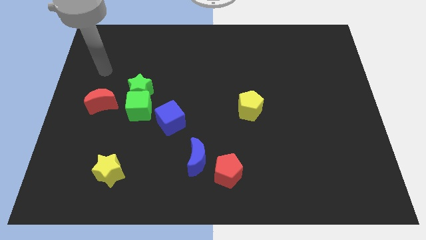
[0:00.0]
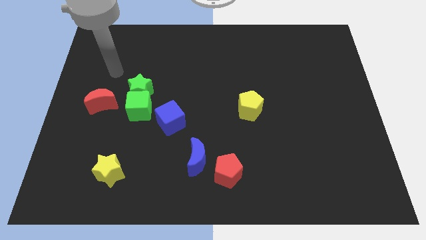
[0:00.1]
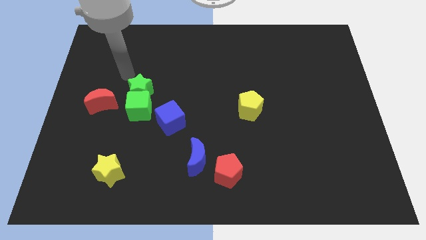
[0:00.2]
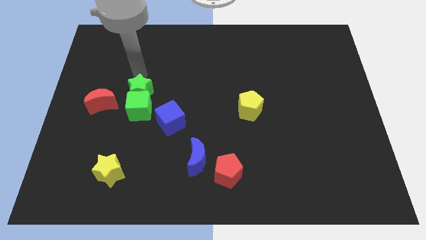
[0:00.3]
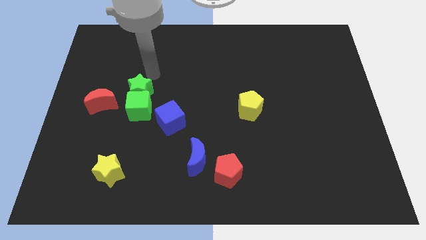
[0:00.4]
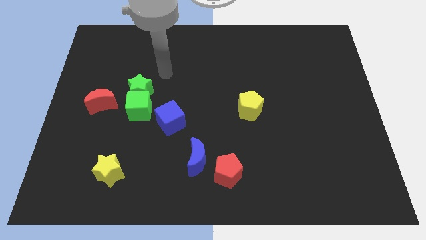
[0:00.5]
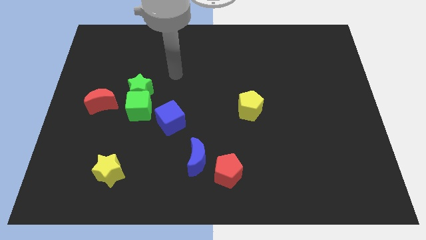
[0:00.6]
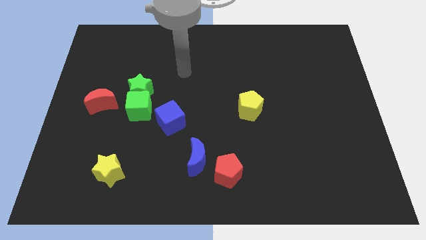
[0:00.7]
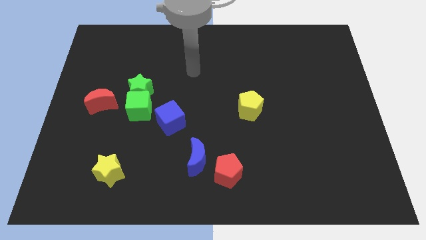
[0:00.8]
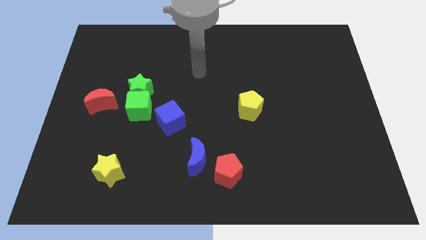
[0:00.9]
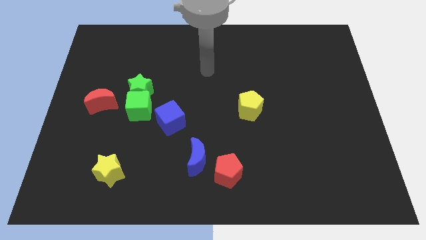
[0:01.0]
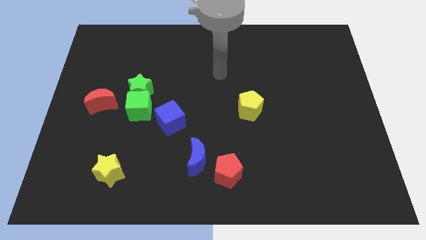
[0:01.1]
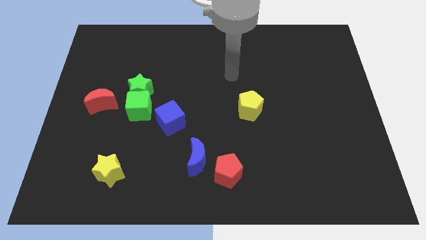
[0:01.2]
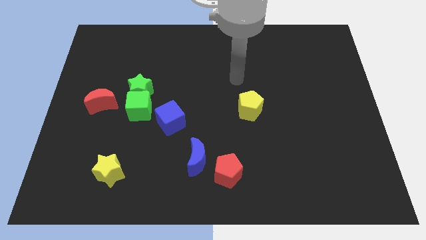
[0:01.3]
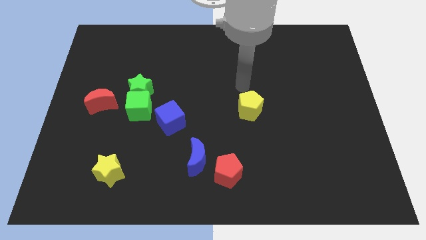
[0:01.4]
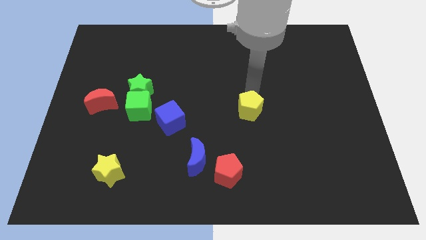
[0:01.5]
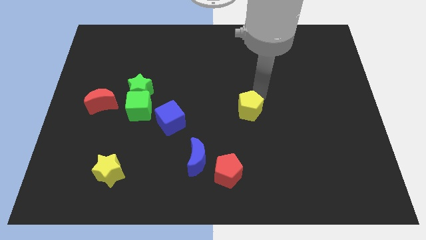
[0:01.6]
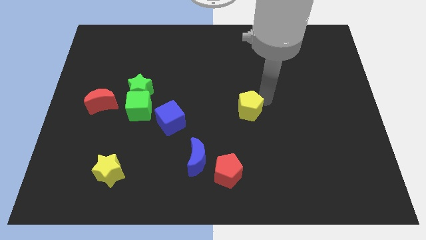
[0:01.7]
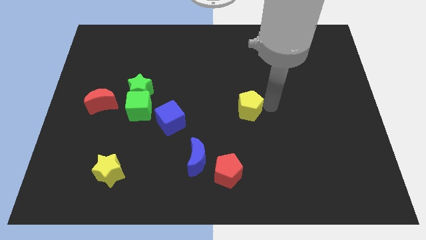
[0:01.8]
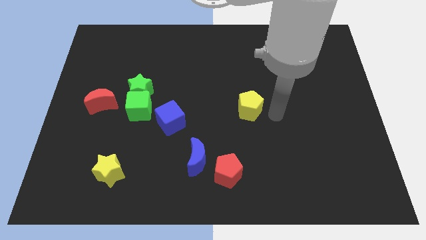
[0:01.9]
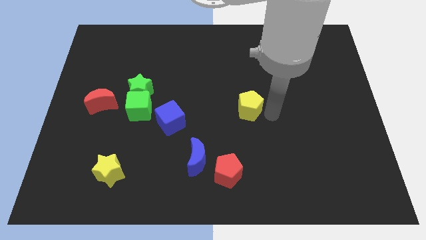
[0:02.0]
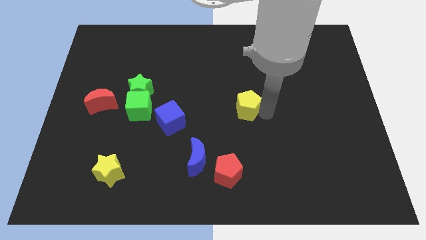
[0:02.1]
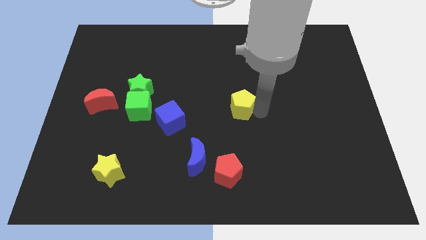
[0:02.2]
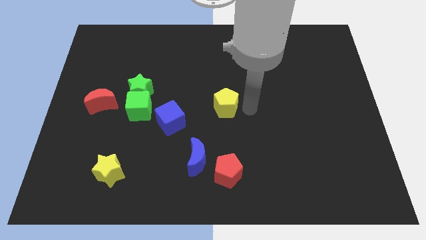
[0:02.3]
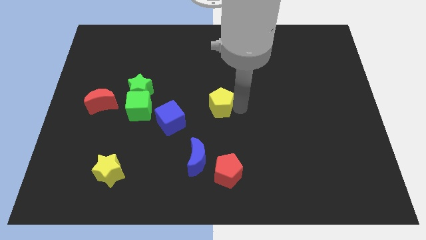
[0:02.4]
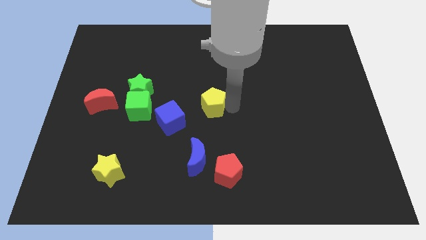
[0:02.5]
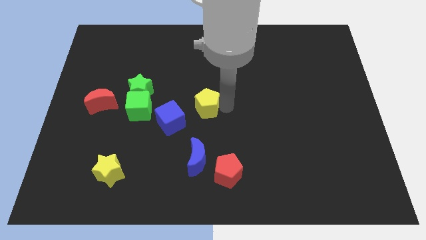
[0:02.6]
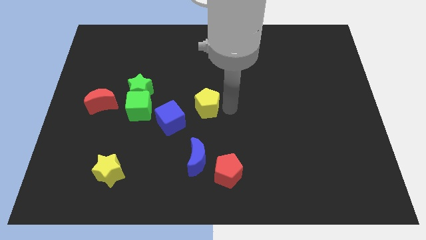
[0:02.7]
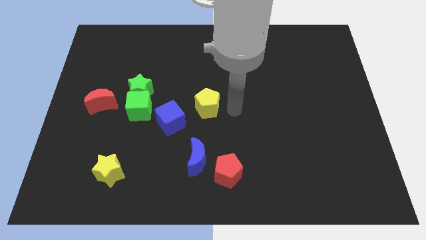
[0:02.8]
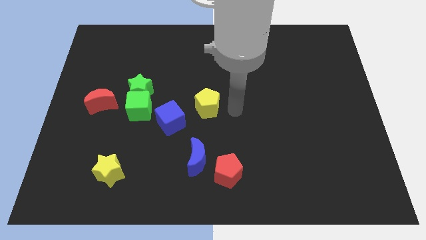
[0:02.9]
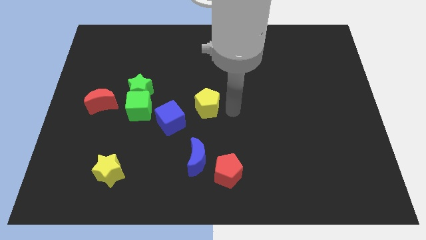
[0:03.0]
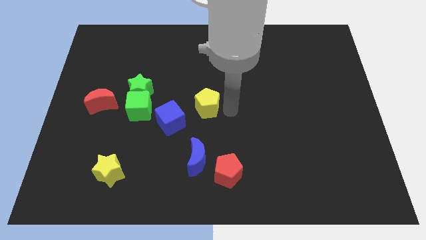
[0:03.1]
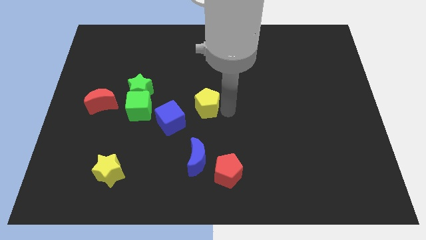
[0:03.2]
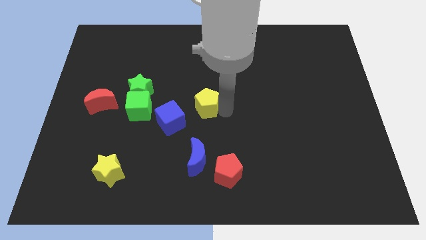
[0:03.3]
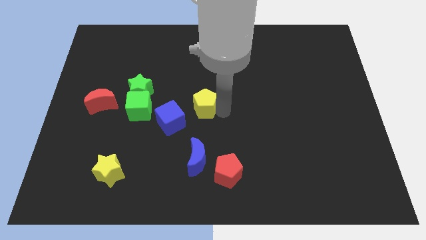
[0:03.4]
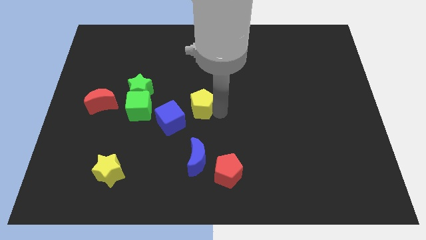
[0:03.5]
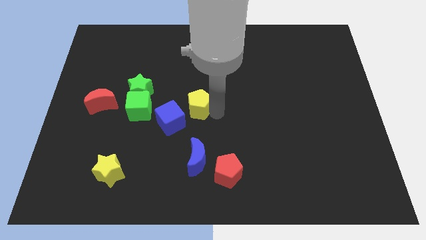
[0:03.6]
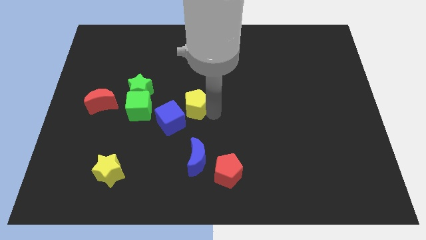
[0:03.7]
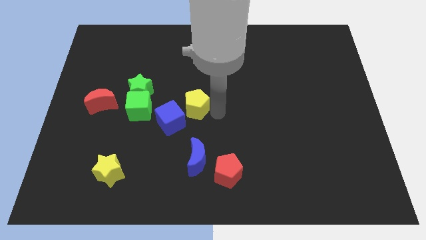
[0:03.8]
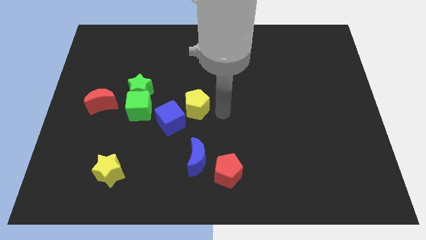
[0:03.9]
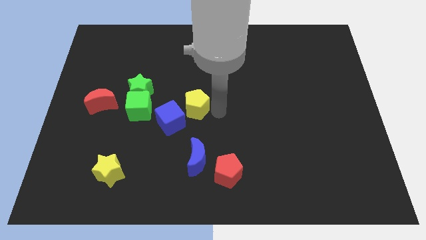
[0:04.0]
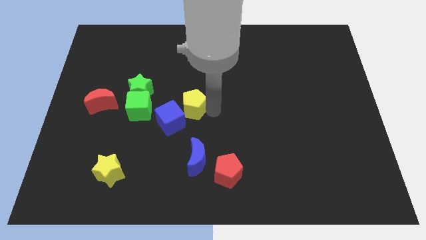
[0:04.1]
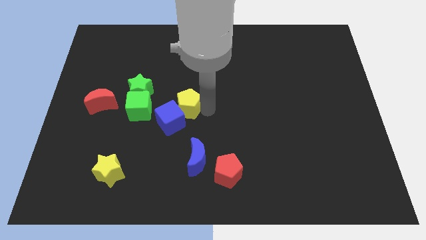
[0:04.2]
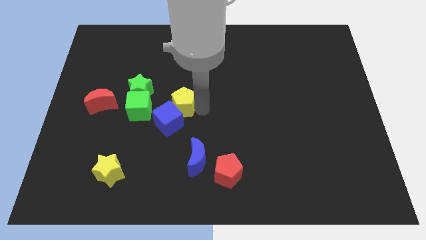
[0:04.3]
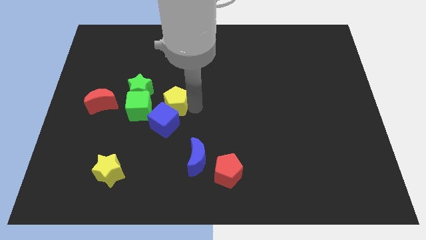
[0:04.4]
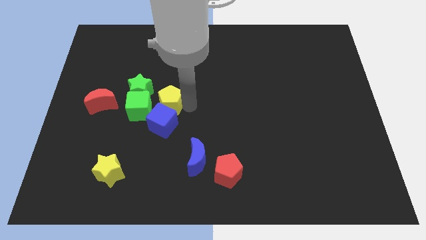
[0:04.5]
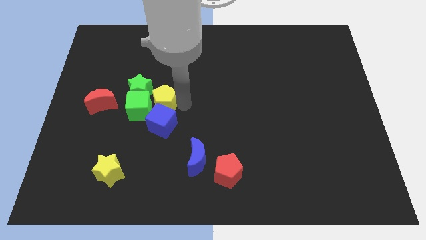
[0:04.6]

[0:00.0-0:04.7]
move the yellow pentagon to the green cube

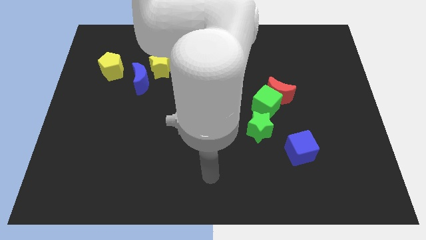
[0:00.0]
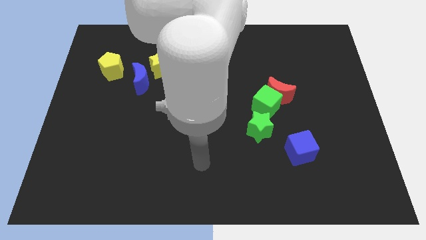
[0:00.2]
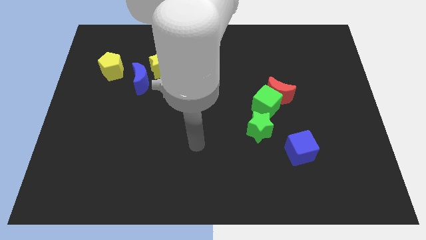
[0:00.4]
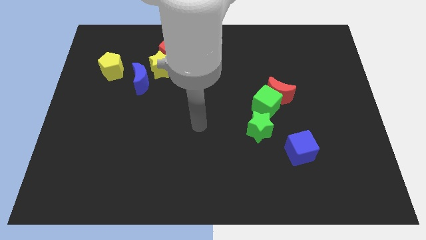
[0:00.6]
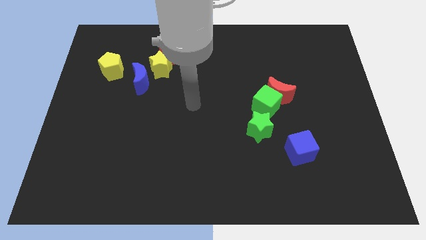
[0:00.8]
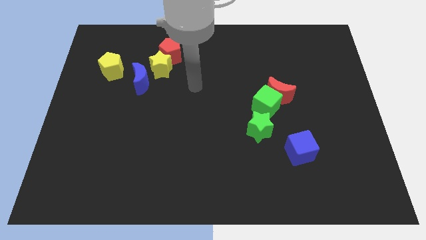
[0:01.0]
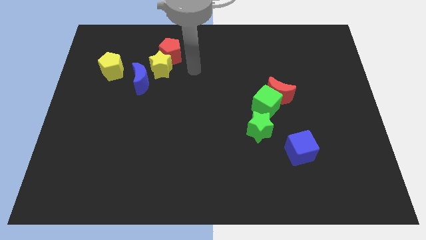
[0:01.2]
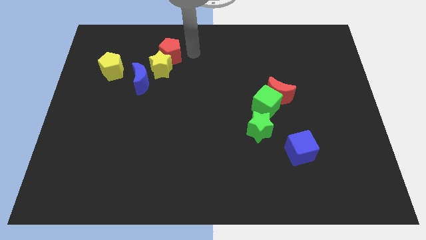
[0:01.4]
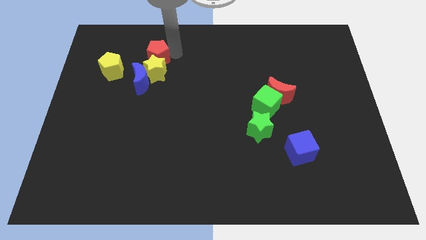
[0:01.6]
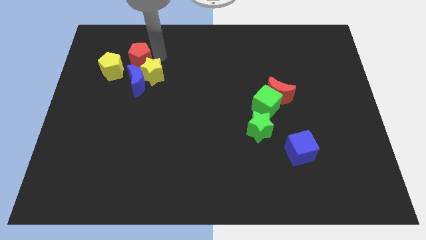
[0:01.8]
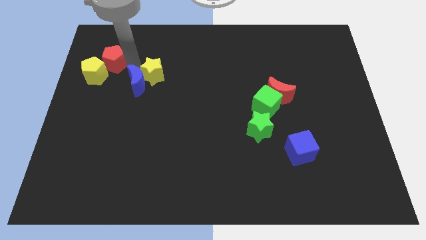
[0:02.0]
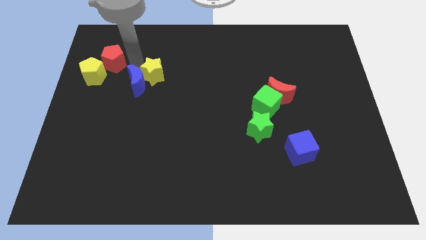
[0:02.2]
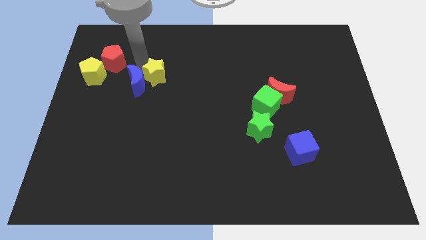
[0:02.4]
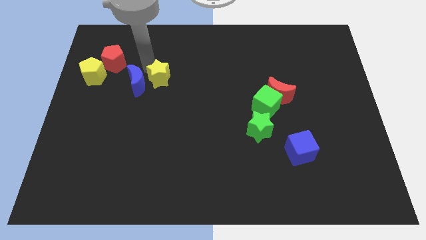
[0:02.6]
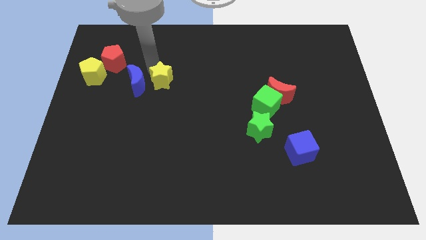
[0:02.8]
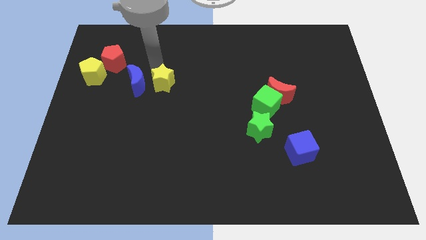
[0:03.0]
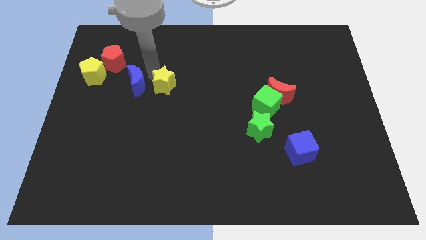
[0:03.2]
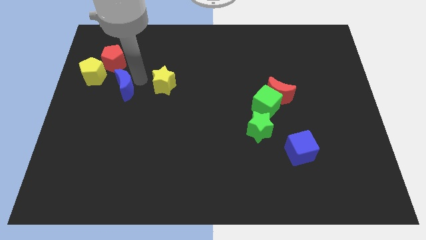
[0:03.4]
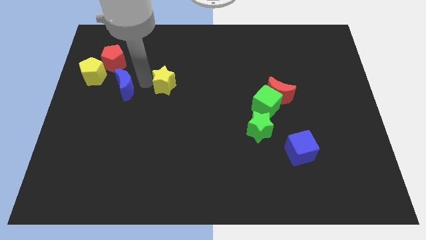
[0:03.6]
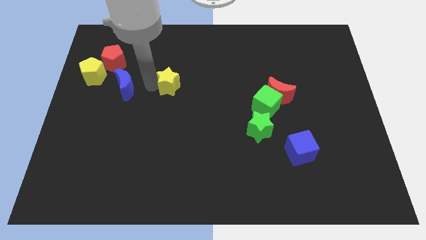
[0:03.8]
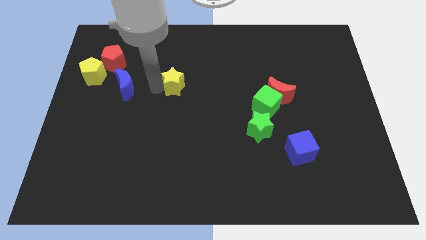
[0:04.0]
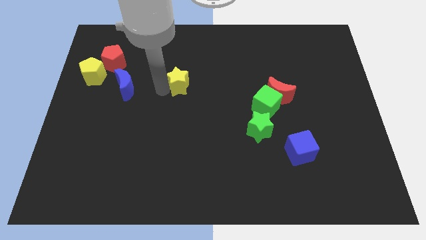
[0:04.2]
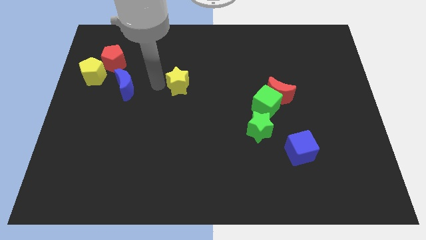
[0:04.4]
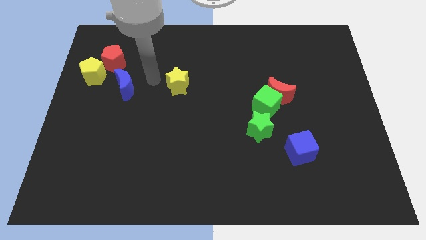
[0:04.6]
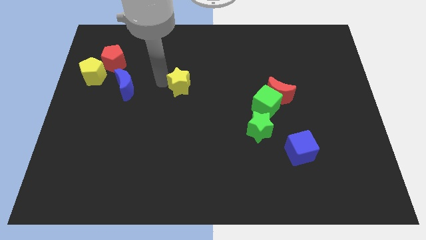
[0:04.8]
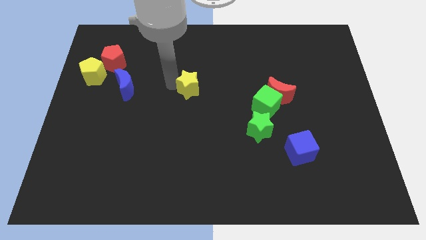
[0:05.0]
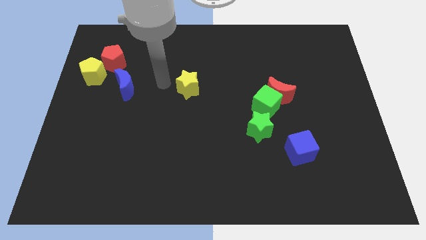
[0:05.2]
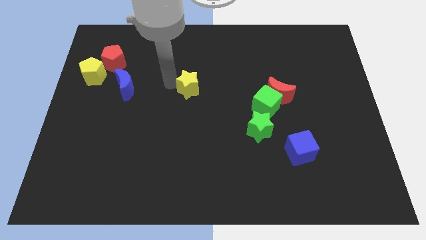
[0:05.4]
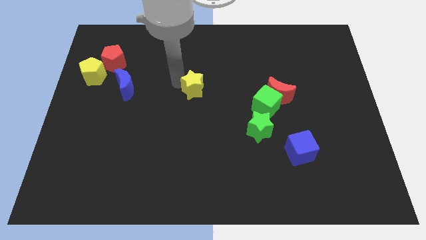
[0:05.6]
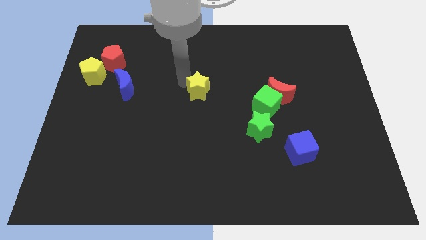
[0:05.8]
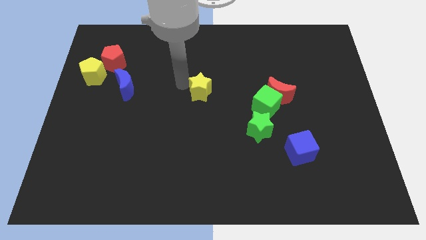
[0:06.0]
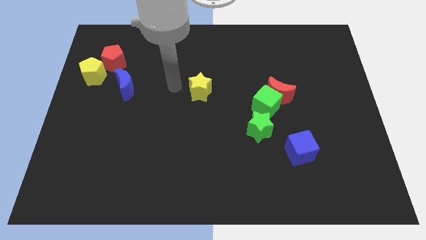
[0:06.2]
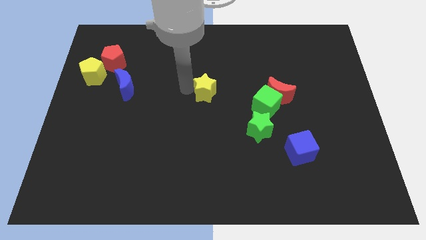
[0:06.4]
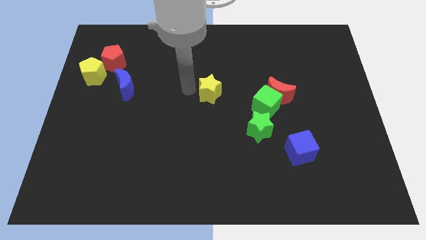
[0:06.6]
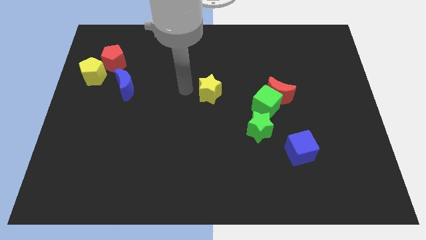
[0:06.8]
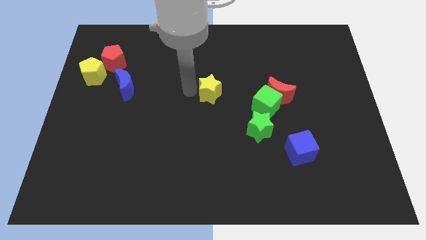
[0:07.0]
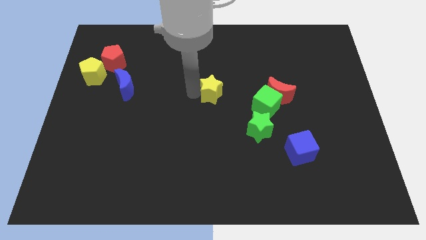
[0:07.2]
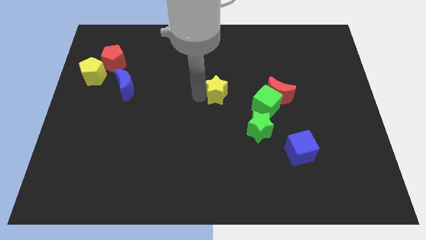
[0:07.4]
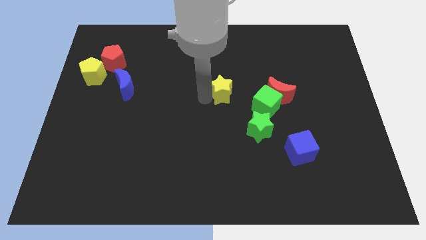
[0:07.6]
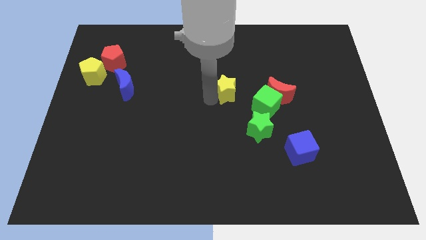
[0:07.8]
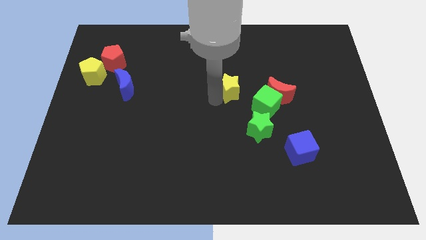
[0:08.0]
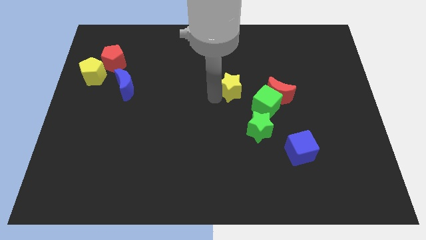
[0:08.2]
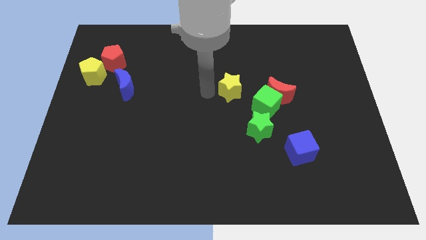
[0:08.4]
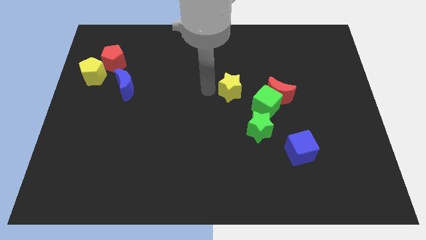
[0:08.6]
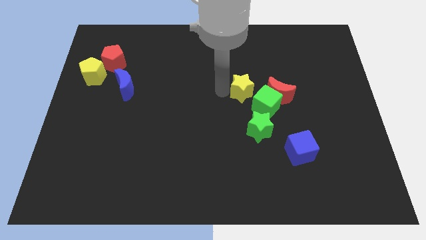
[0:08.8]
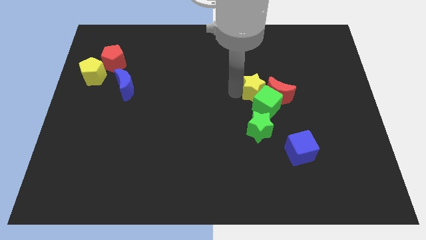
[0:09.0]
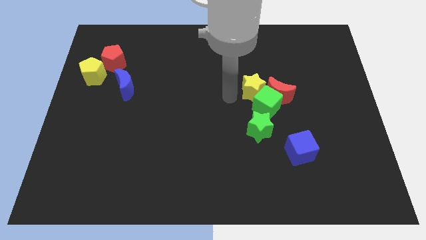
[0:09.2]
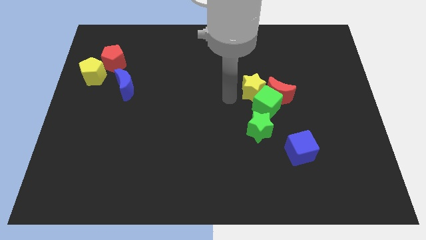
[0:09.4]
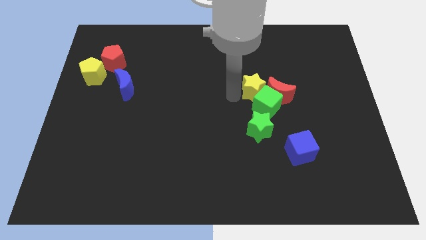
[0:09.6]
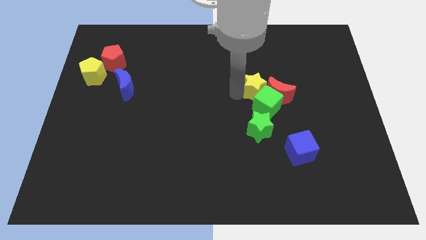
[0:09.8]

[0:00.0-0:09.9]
slide the yellow star next to the red moon
